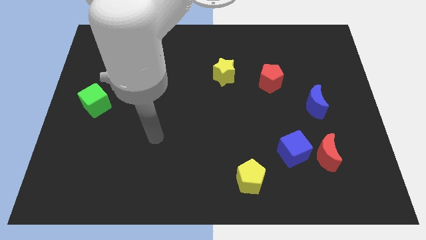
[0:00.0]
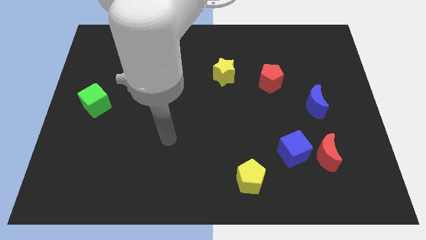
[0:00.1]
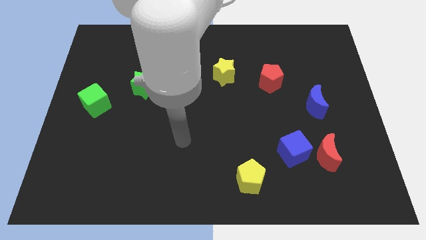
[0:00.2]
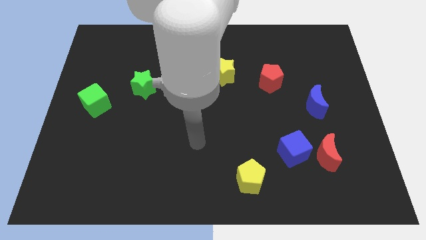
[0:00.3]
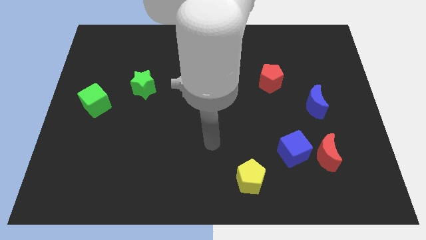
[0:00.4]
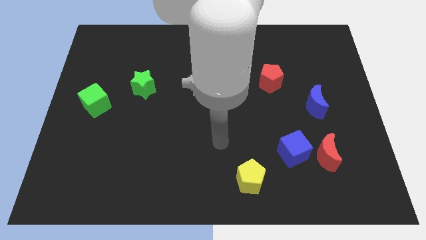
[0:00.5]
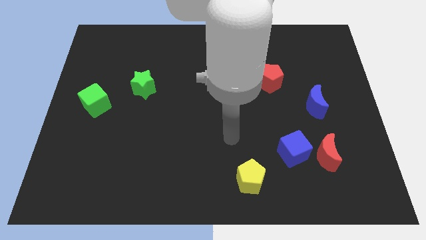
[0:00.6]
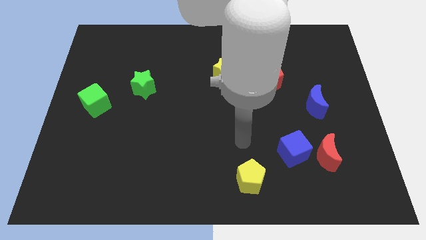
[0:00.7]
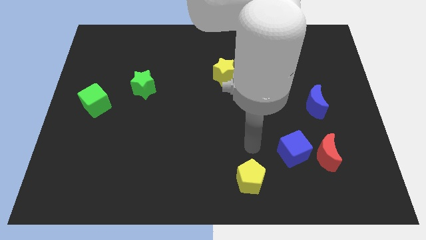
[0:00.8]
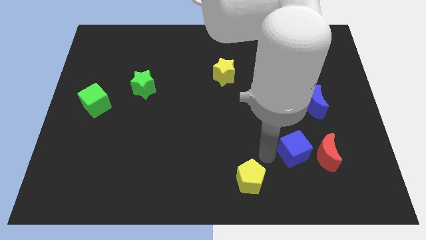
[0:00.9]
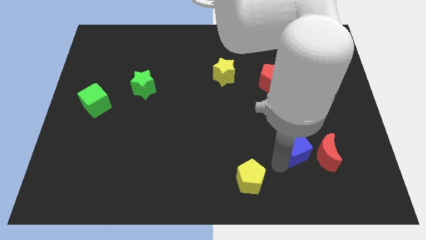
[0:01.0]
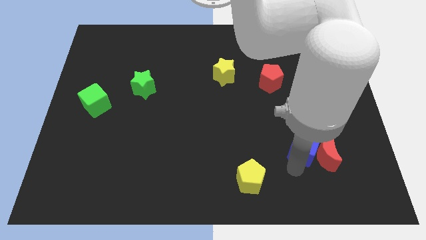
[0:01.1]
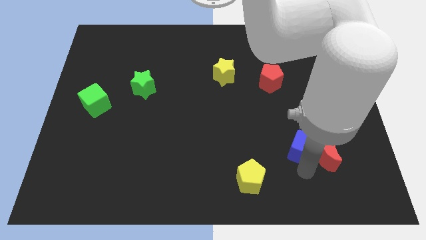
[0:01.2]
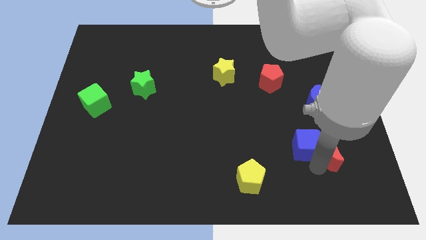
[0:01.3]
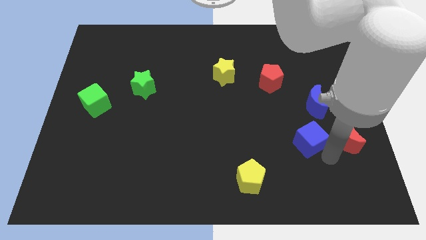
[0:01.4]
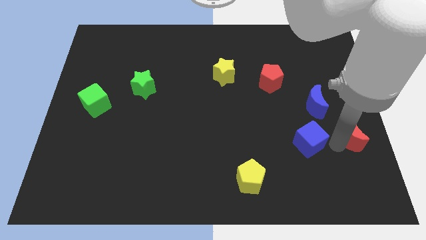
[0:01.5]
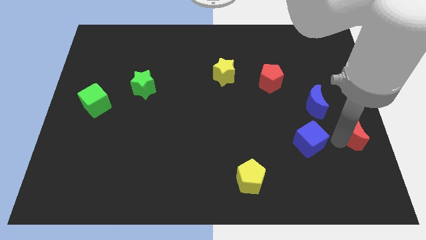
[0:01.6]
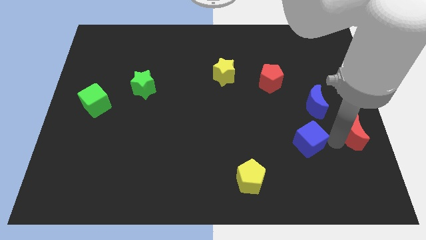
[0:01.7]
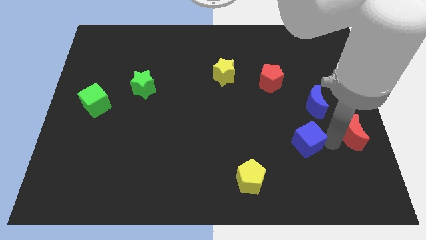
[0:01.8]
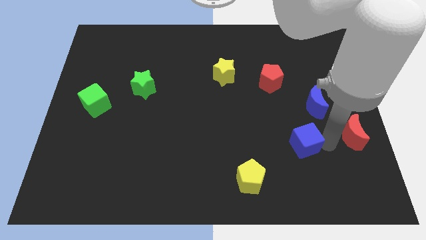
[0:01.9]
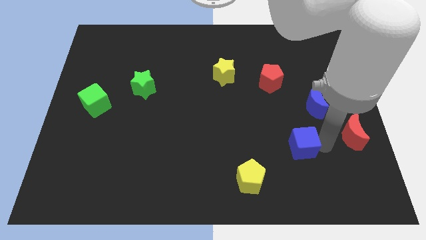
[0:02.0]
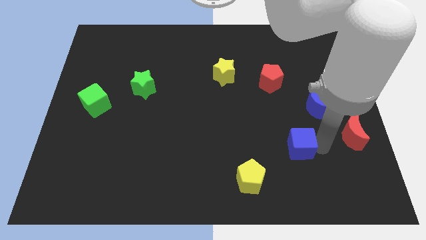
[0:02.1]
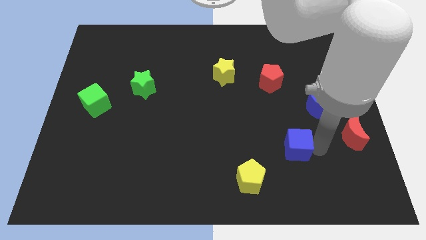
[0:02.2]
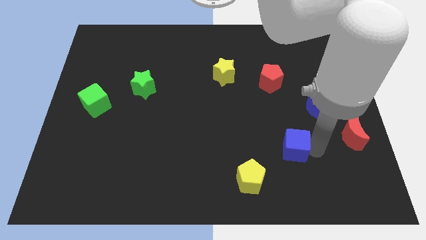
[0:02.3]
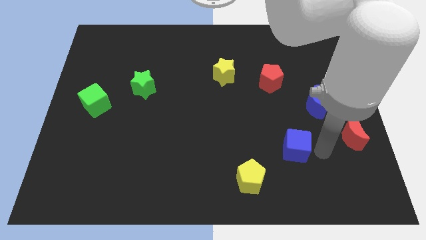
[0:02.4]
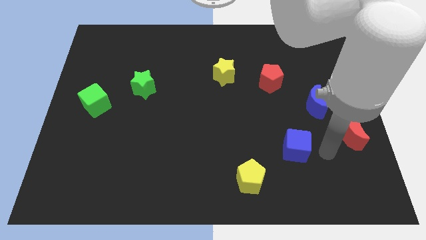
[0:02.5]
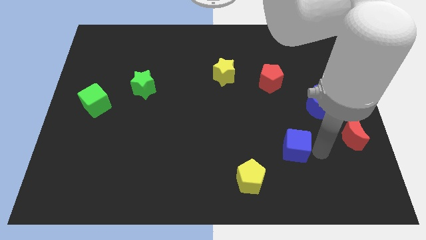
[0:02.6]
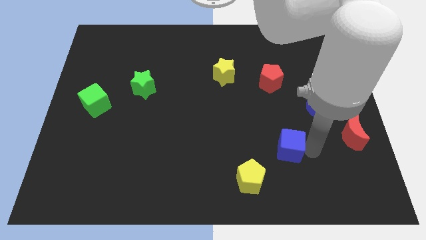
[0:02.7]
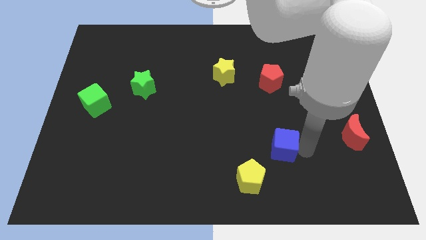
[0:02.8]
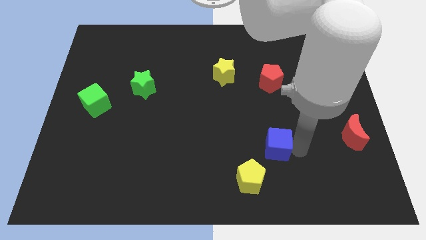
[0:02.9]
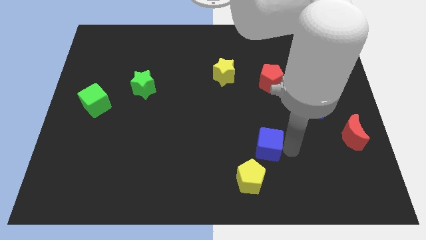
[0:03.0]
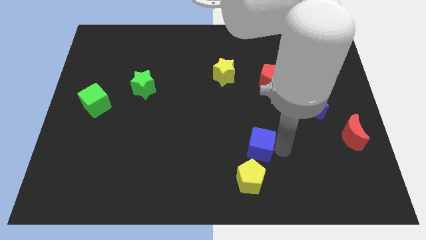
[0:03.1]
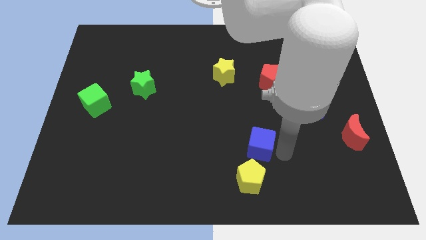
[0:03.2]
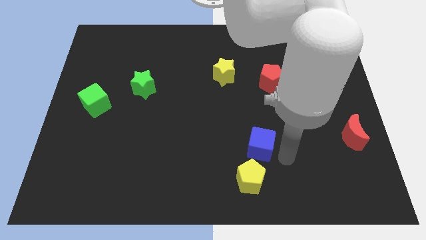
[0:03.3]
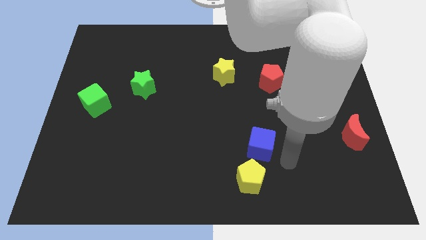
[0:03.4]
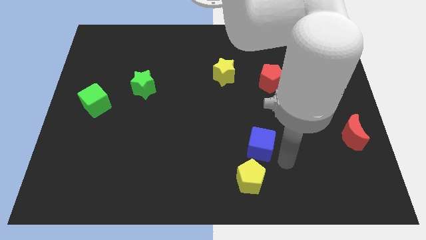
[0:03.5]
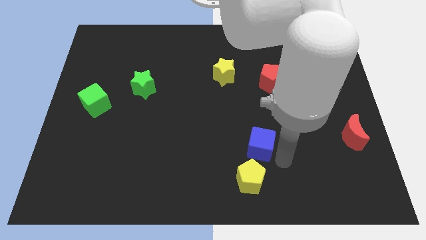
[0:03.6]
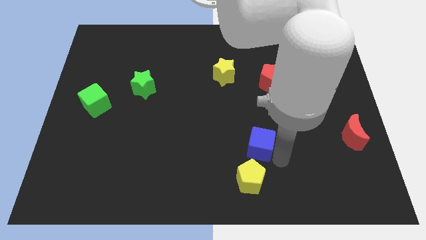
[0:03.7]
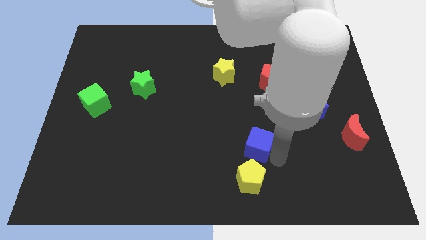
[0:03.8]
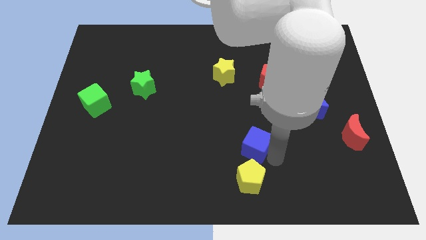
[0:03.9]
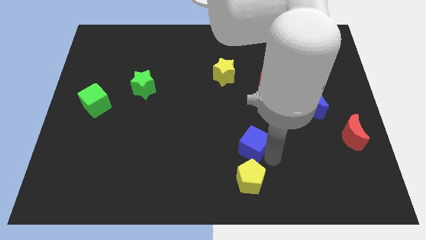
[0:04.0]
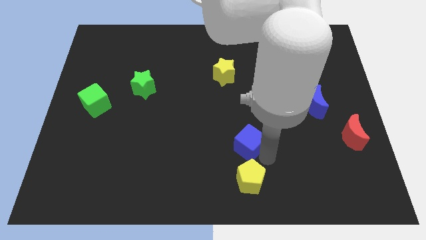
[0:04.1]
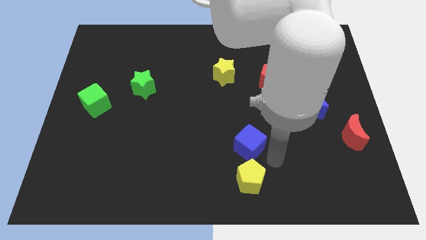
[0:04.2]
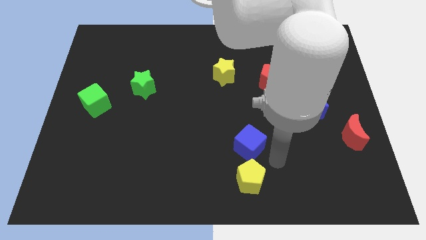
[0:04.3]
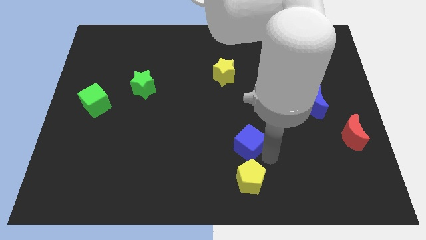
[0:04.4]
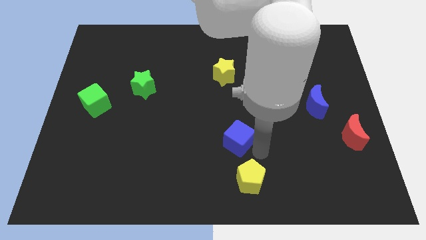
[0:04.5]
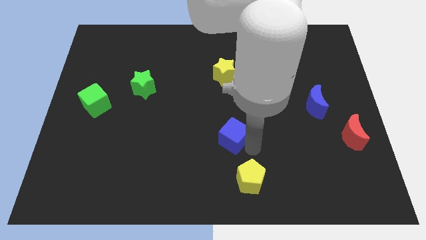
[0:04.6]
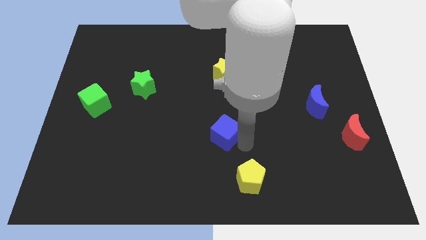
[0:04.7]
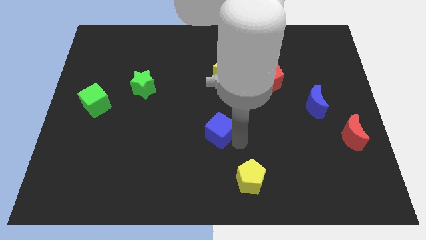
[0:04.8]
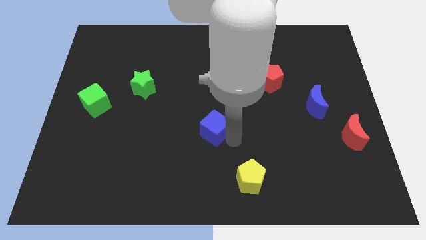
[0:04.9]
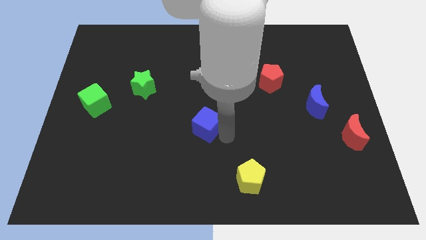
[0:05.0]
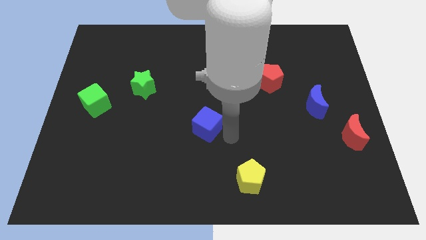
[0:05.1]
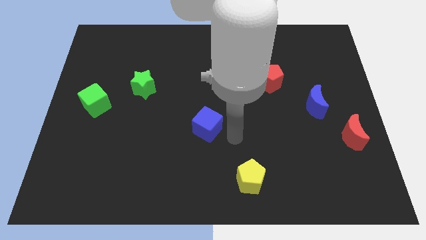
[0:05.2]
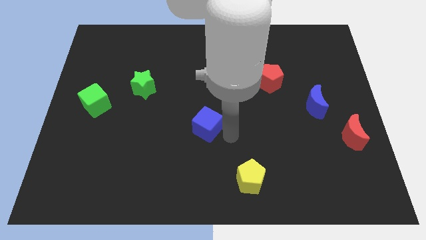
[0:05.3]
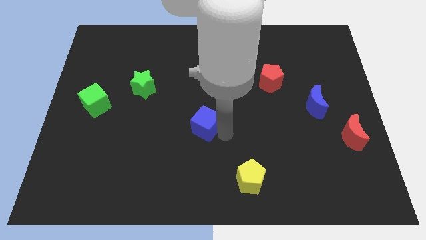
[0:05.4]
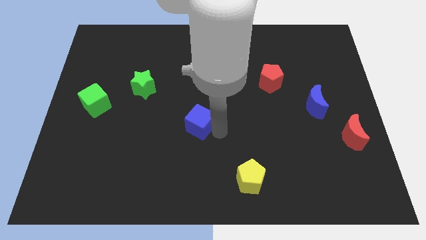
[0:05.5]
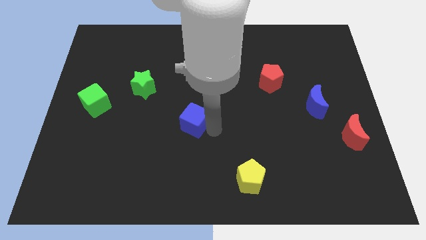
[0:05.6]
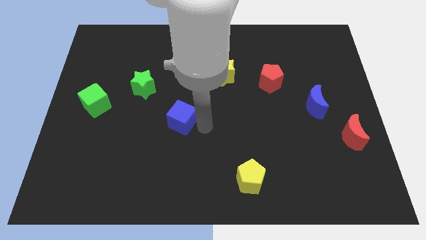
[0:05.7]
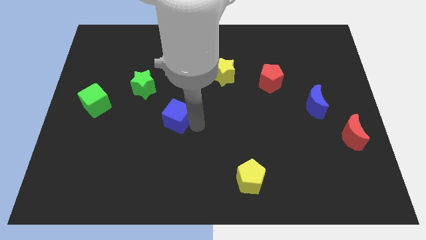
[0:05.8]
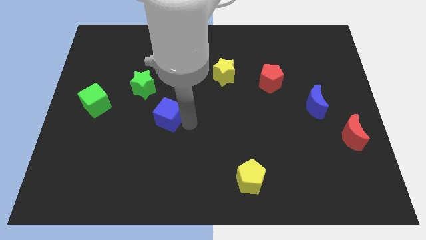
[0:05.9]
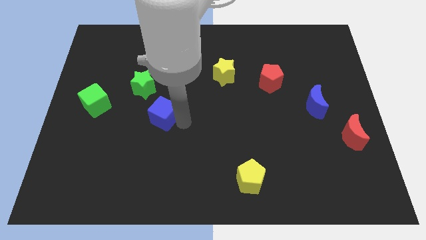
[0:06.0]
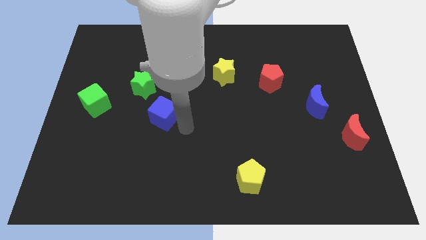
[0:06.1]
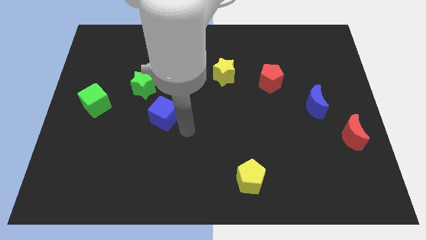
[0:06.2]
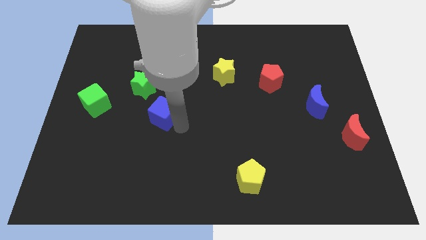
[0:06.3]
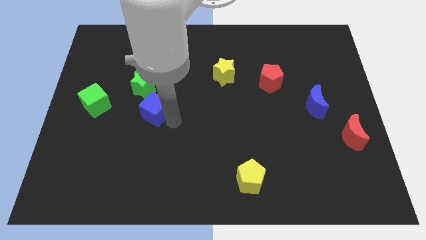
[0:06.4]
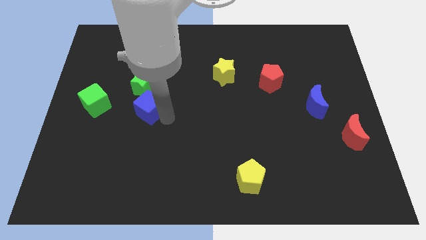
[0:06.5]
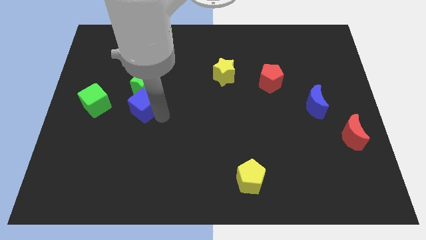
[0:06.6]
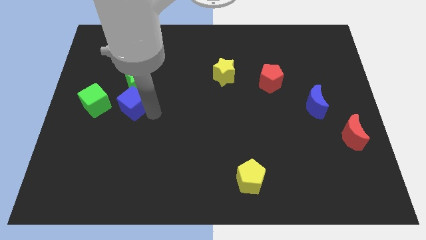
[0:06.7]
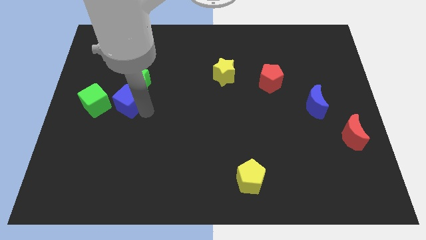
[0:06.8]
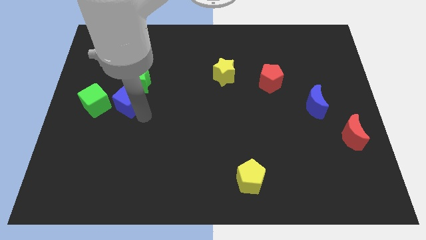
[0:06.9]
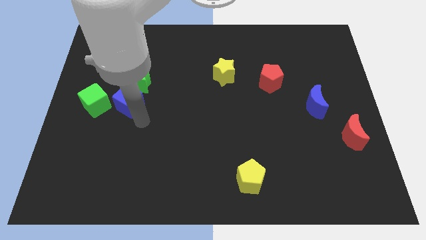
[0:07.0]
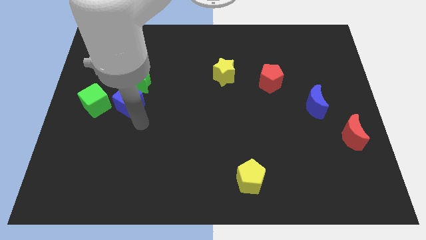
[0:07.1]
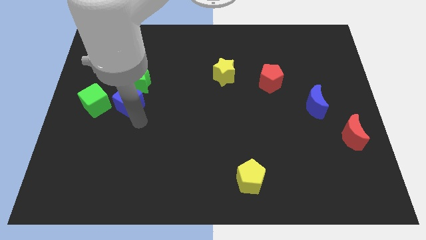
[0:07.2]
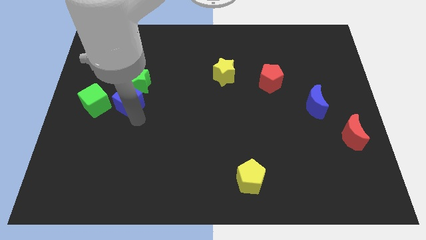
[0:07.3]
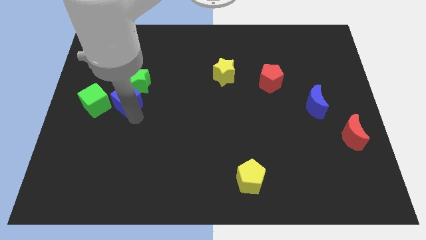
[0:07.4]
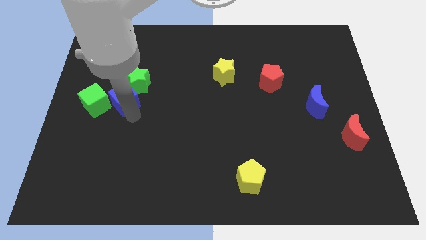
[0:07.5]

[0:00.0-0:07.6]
put the blue cube to the top right of the green cube

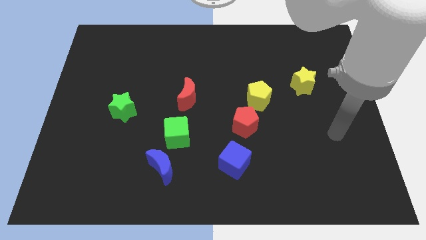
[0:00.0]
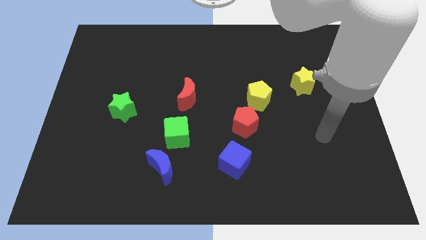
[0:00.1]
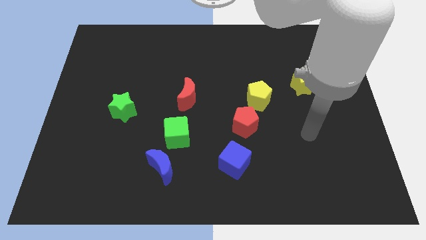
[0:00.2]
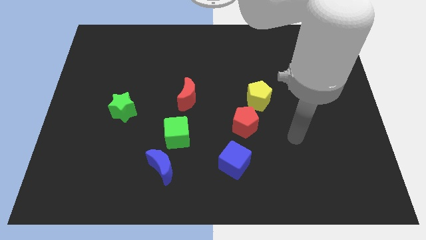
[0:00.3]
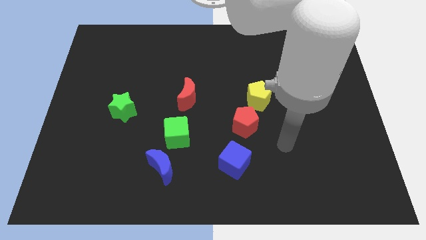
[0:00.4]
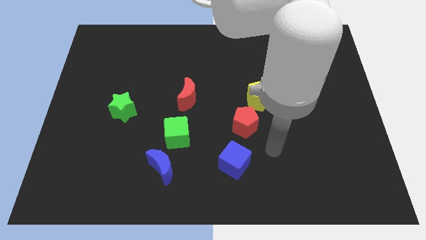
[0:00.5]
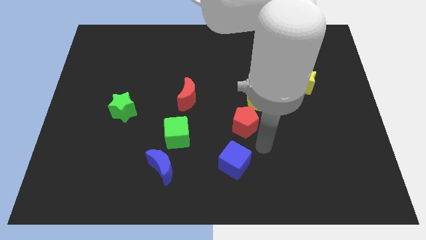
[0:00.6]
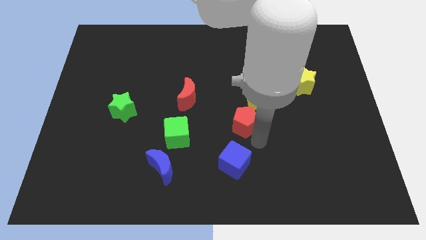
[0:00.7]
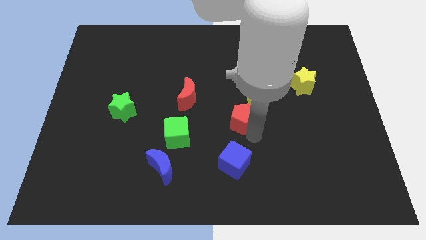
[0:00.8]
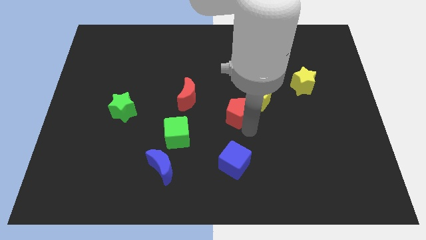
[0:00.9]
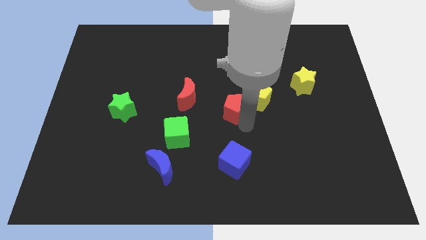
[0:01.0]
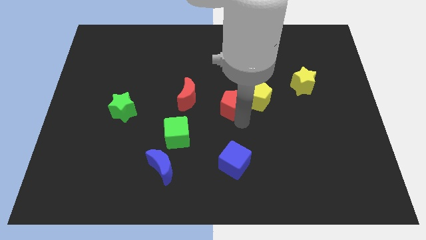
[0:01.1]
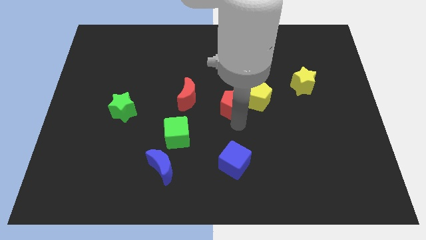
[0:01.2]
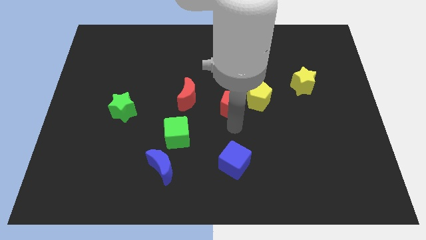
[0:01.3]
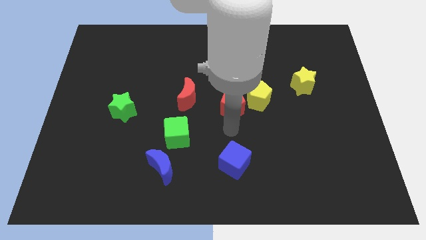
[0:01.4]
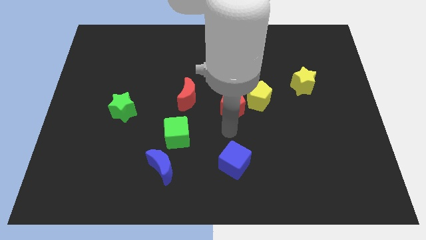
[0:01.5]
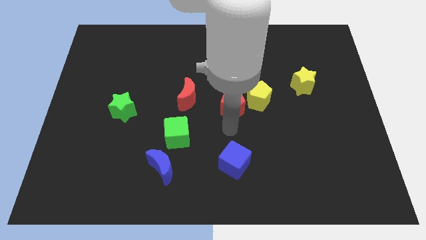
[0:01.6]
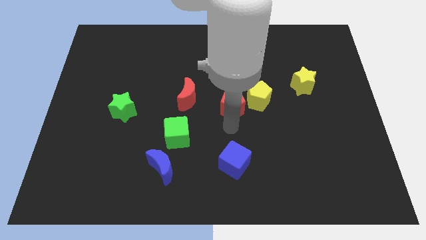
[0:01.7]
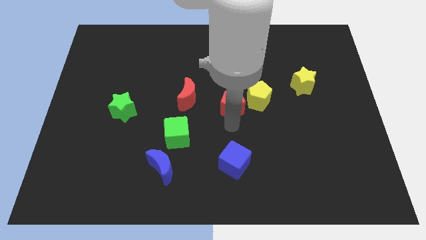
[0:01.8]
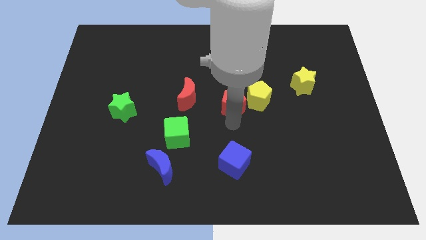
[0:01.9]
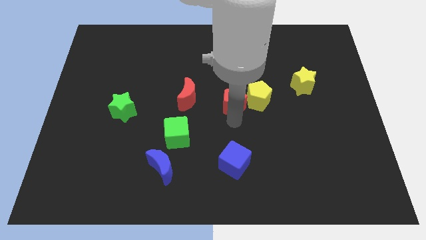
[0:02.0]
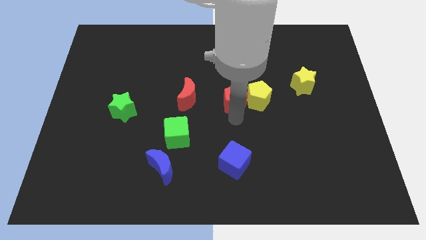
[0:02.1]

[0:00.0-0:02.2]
slide the red pentagon to the top left side of the yellow pentagon
